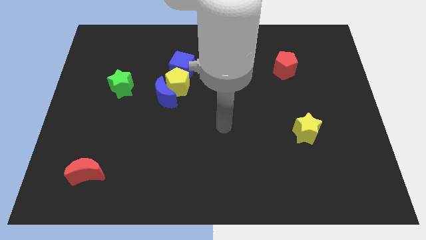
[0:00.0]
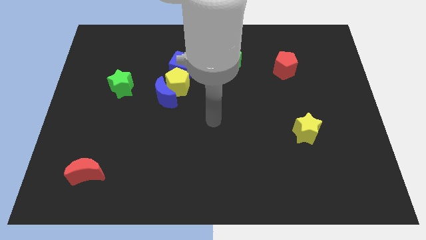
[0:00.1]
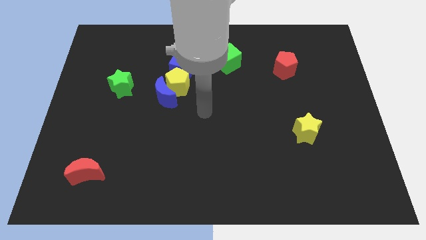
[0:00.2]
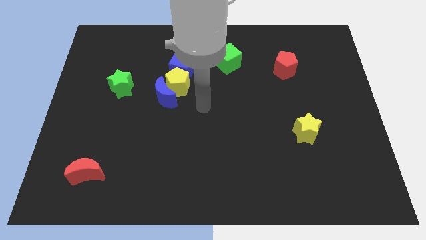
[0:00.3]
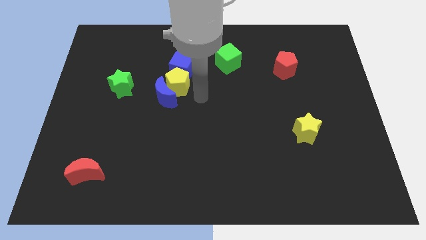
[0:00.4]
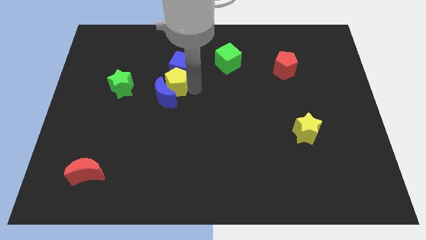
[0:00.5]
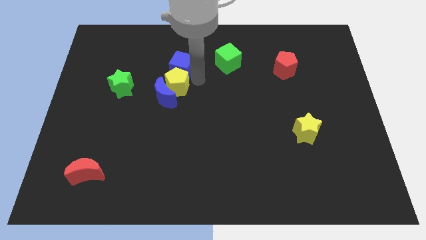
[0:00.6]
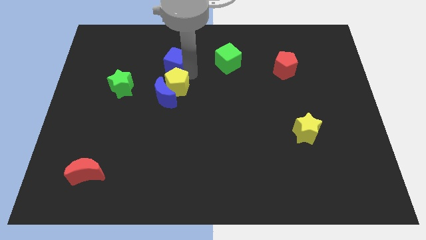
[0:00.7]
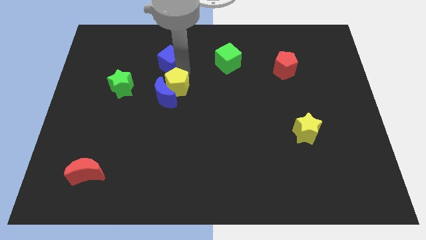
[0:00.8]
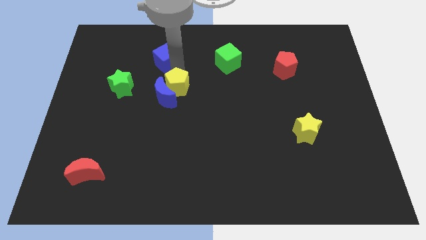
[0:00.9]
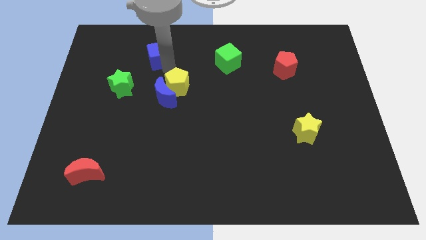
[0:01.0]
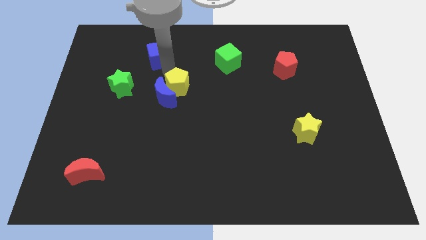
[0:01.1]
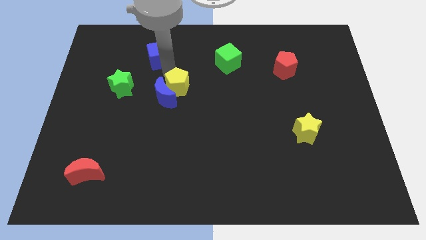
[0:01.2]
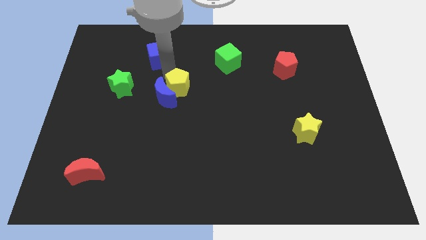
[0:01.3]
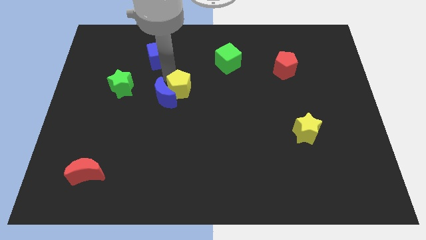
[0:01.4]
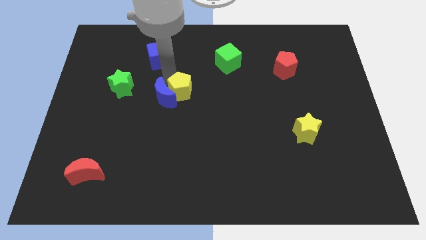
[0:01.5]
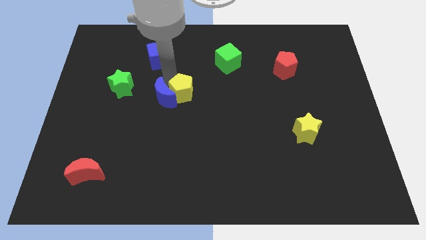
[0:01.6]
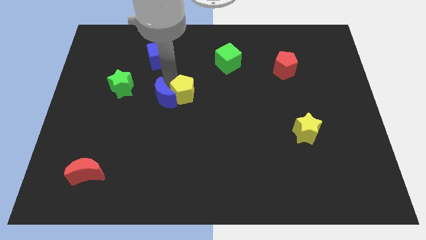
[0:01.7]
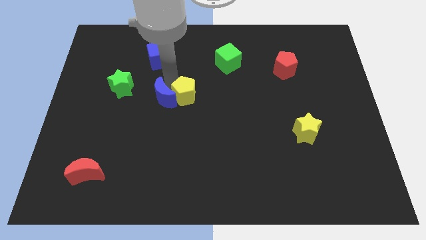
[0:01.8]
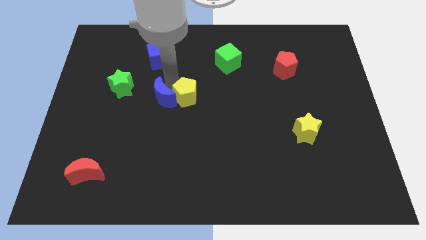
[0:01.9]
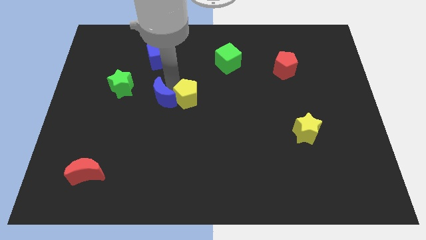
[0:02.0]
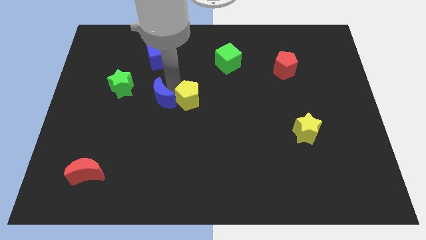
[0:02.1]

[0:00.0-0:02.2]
move the yellow pentagon away from the blue moon and blue cube

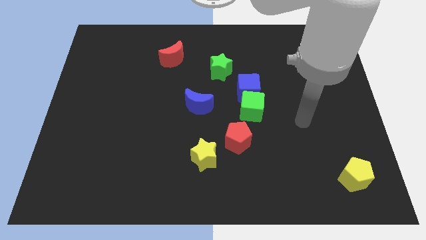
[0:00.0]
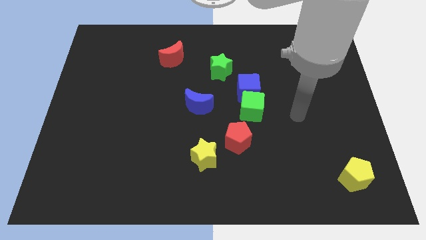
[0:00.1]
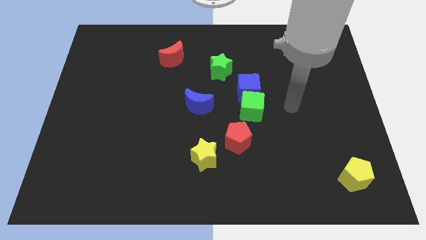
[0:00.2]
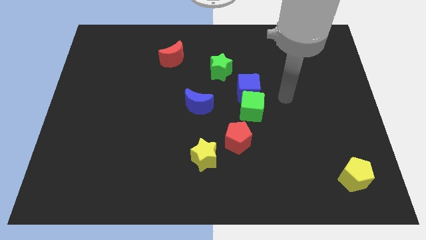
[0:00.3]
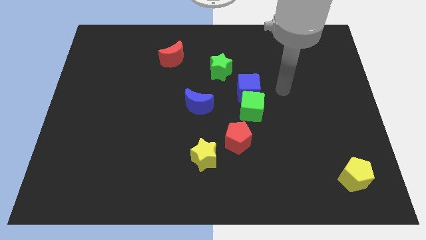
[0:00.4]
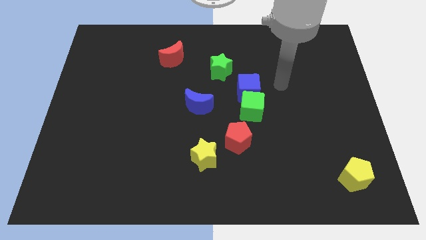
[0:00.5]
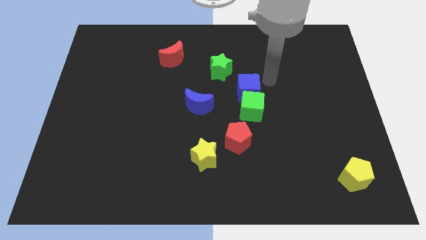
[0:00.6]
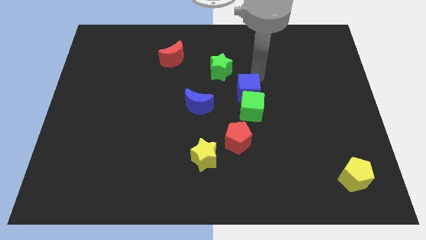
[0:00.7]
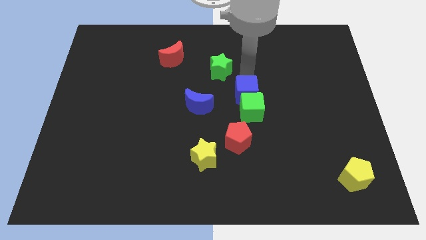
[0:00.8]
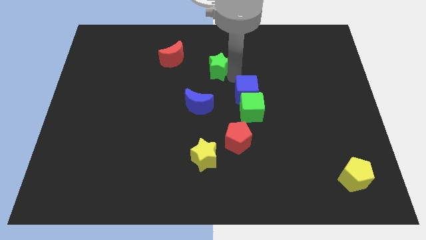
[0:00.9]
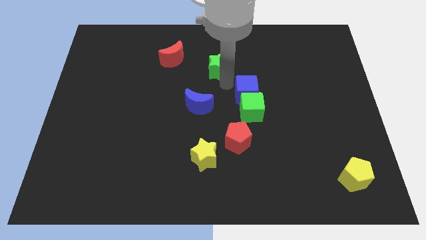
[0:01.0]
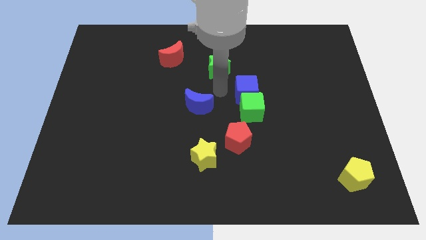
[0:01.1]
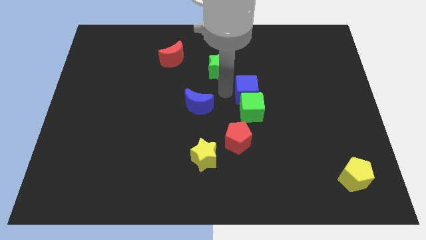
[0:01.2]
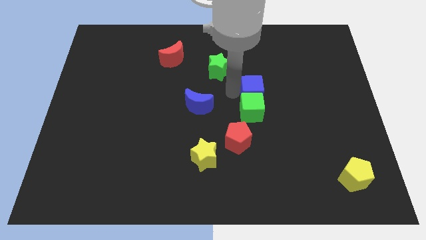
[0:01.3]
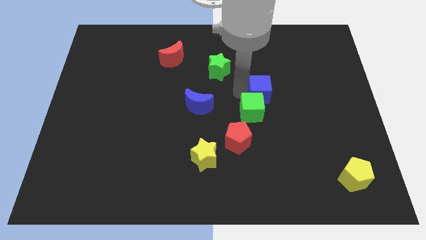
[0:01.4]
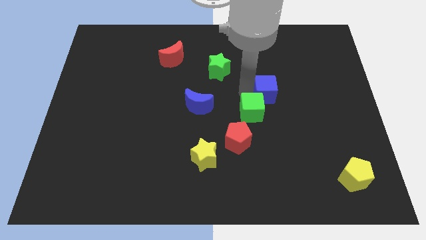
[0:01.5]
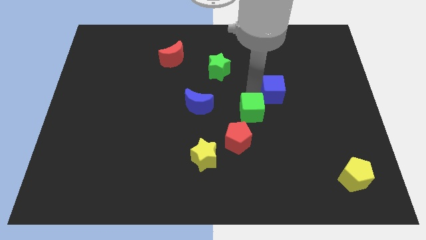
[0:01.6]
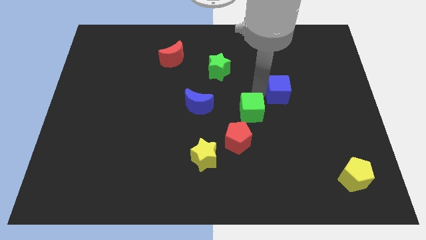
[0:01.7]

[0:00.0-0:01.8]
move the blue cube away from the green cube and green star

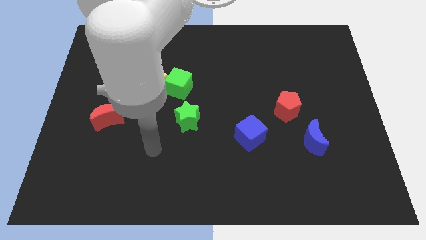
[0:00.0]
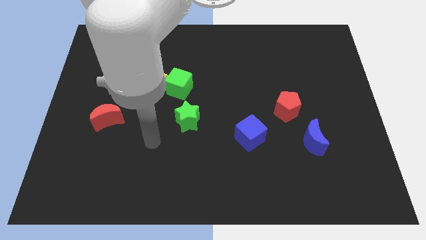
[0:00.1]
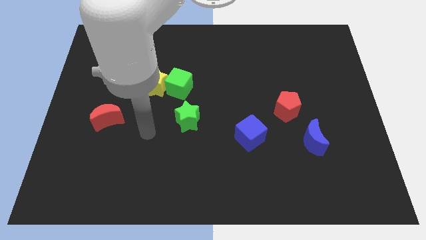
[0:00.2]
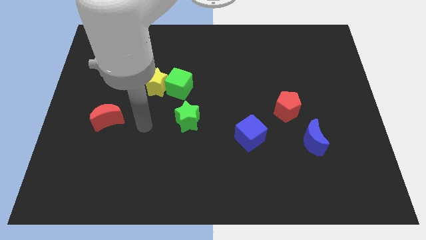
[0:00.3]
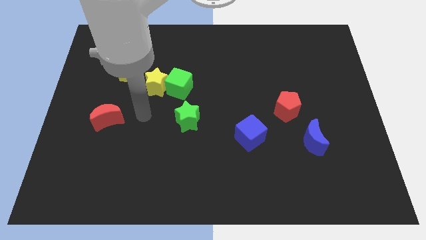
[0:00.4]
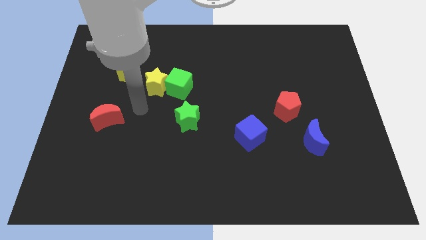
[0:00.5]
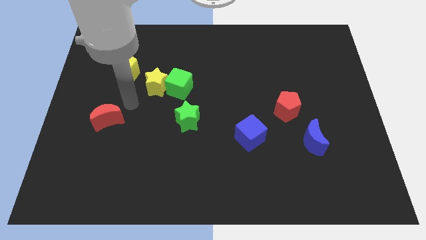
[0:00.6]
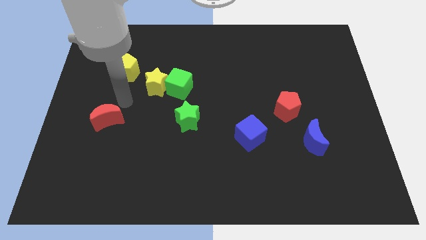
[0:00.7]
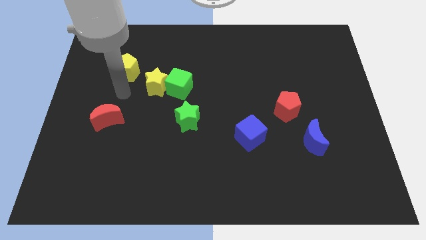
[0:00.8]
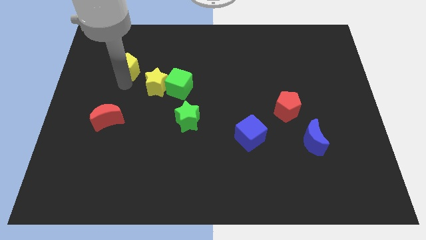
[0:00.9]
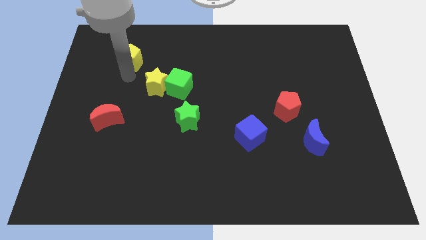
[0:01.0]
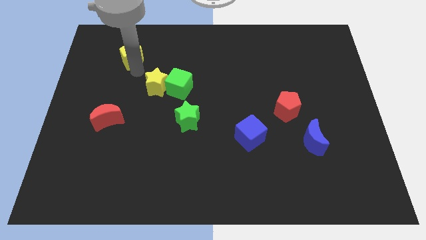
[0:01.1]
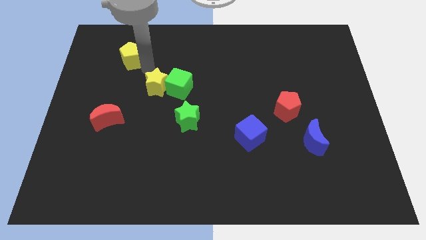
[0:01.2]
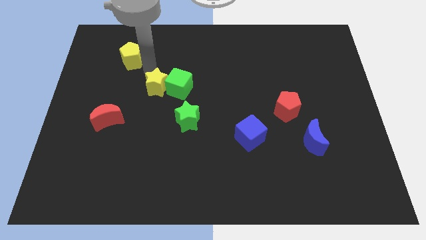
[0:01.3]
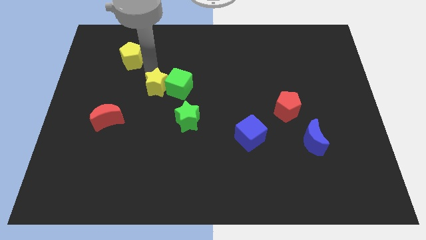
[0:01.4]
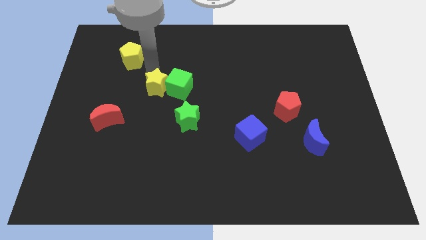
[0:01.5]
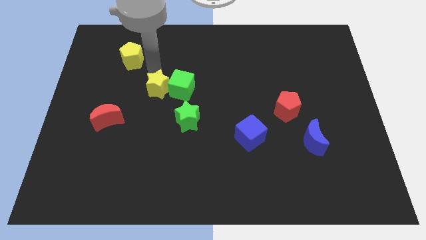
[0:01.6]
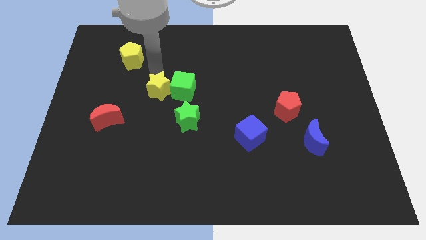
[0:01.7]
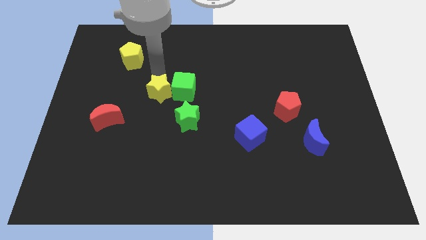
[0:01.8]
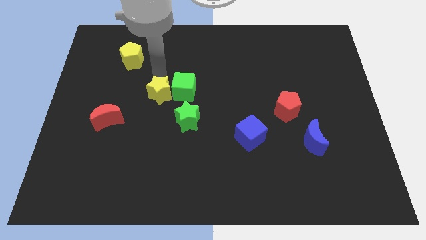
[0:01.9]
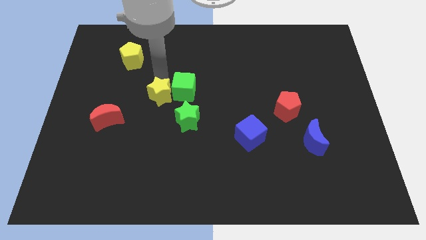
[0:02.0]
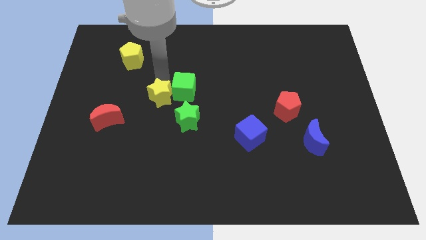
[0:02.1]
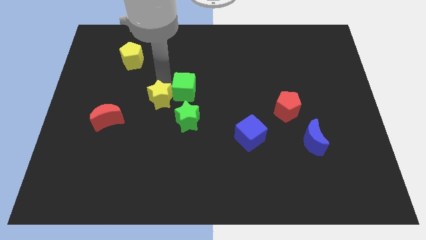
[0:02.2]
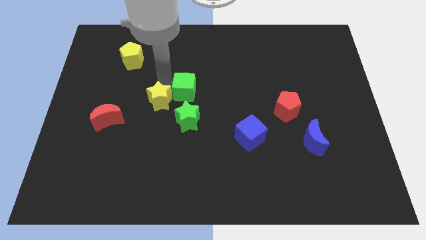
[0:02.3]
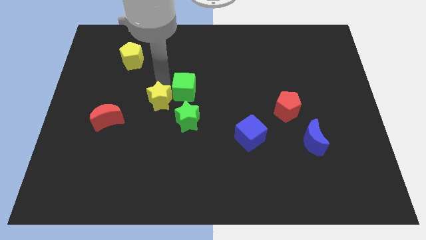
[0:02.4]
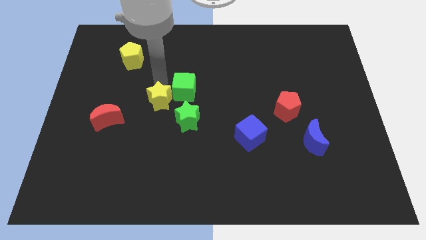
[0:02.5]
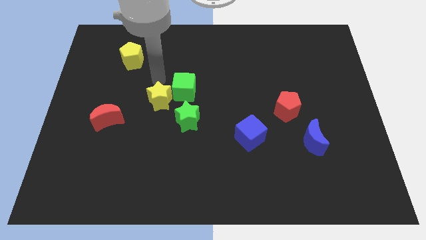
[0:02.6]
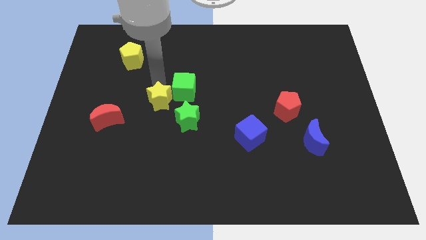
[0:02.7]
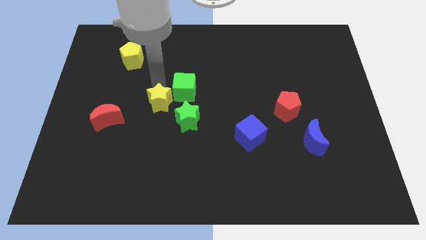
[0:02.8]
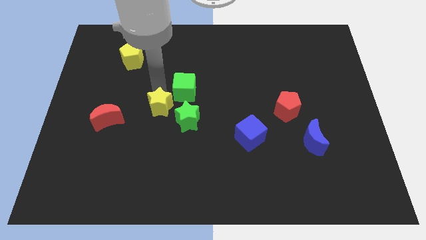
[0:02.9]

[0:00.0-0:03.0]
move the yellow star away from the green cube and yellow pentagon

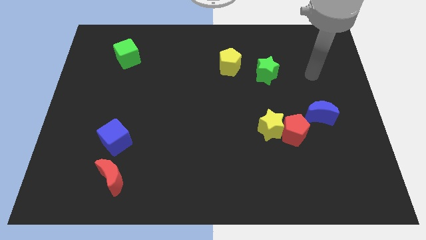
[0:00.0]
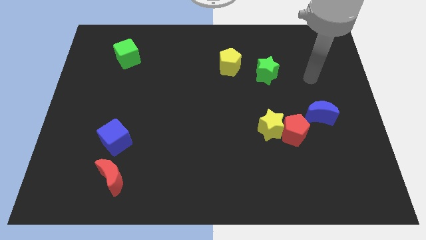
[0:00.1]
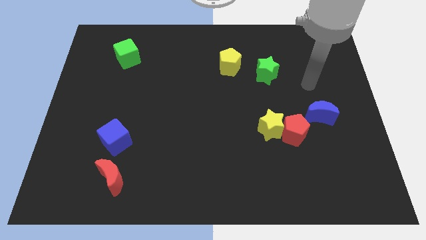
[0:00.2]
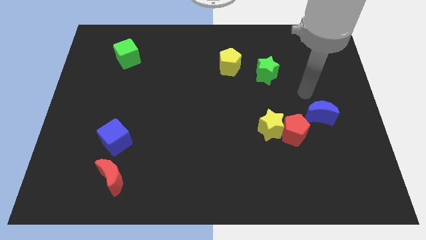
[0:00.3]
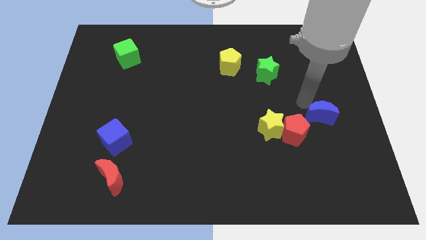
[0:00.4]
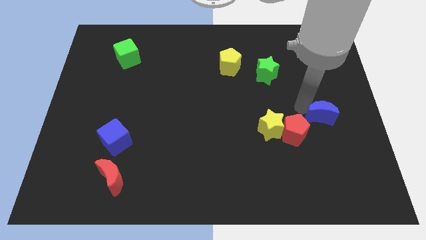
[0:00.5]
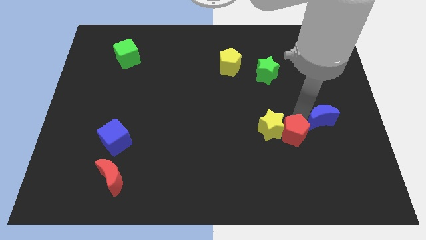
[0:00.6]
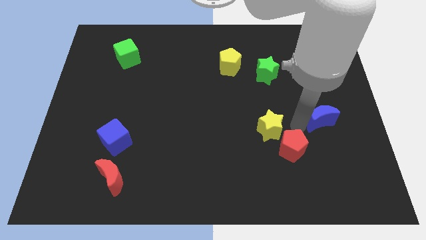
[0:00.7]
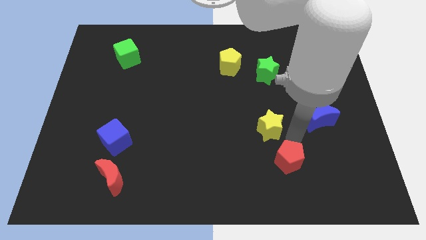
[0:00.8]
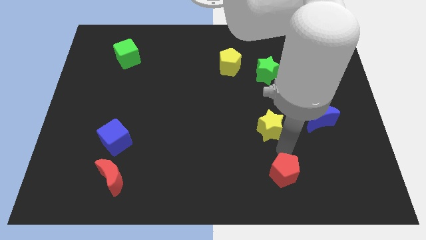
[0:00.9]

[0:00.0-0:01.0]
pull the yellow star apart from the red pentagon

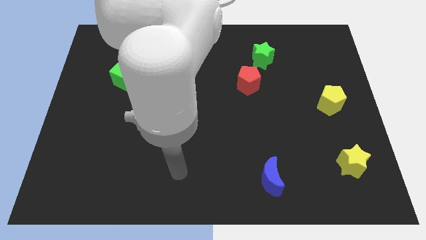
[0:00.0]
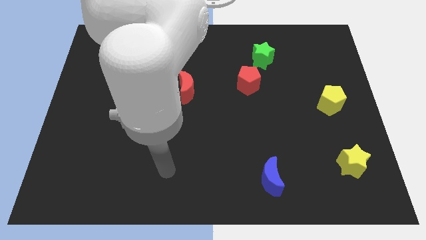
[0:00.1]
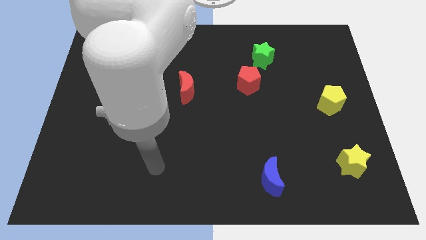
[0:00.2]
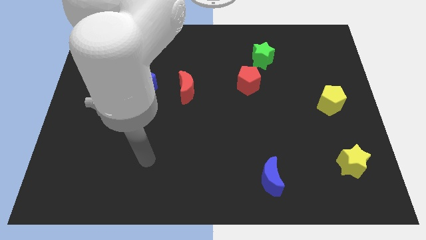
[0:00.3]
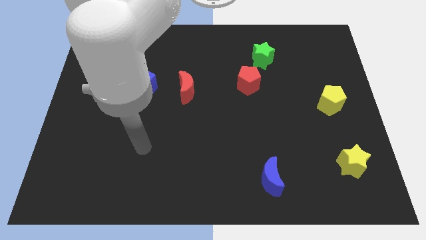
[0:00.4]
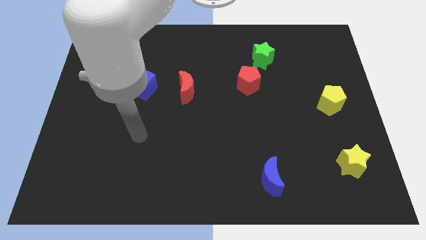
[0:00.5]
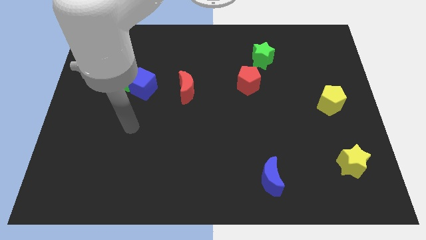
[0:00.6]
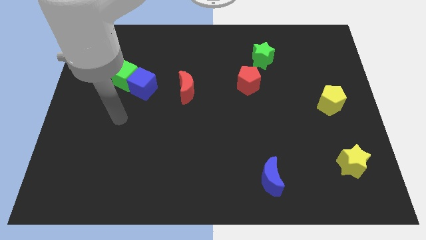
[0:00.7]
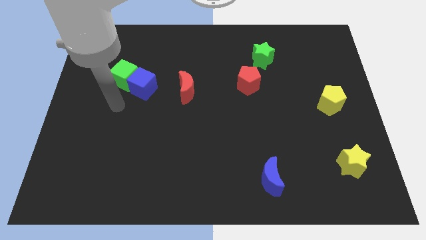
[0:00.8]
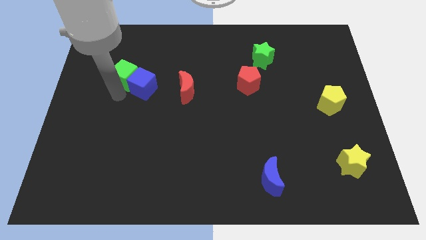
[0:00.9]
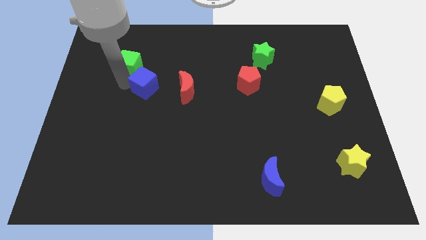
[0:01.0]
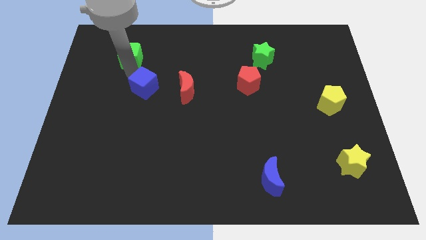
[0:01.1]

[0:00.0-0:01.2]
separate the blue cube from the green cube
